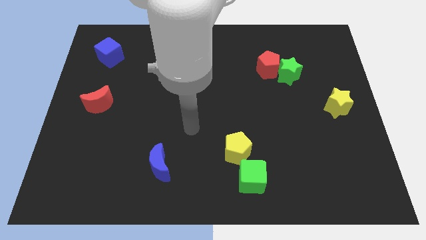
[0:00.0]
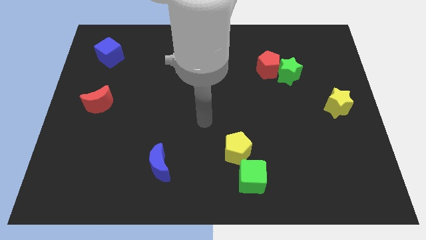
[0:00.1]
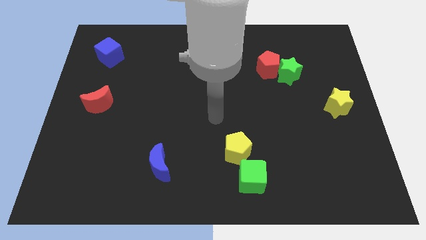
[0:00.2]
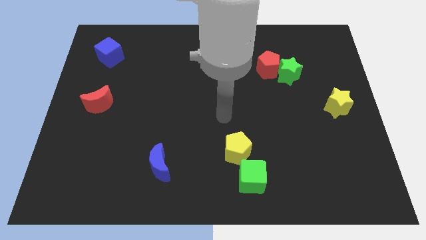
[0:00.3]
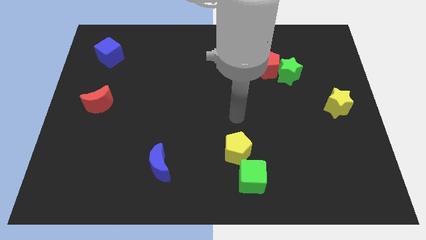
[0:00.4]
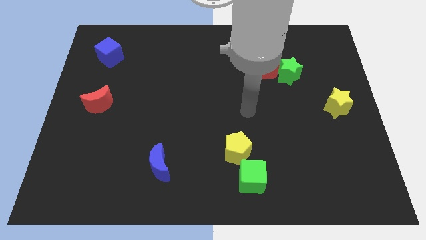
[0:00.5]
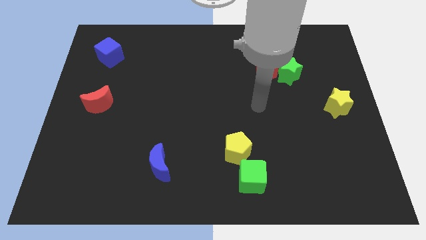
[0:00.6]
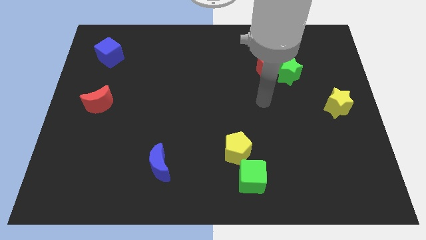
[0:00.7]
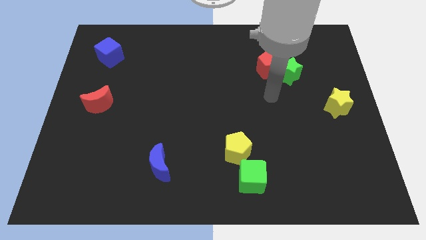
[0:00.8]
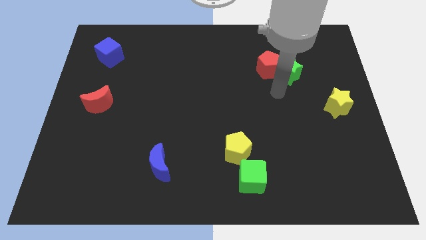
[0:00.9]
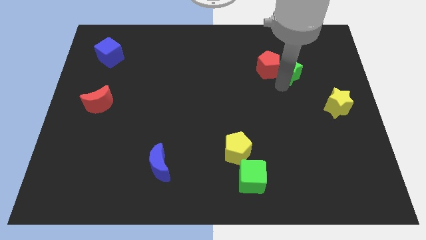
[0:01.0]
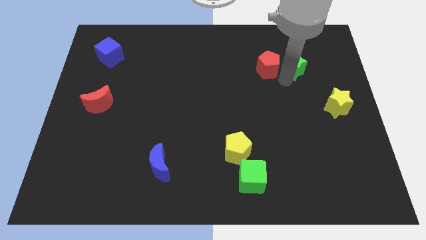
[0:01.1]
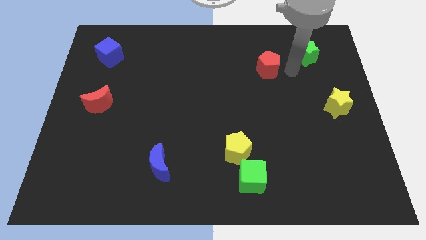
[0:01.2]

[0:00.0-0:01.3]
pull the red pentagon apart from the green star

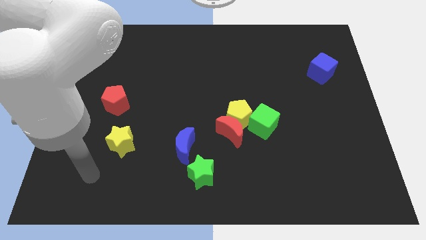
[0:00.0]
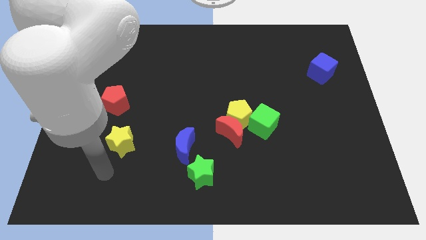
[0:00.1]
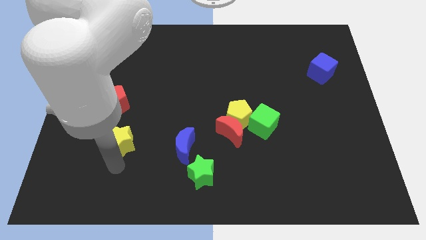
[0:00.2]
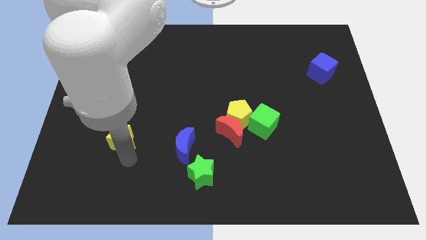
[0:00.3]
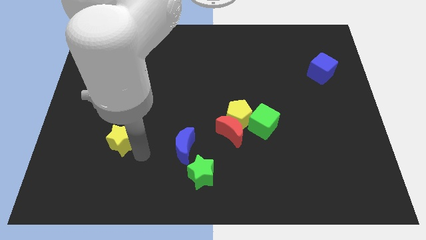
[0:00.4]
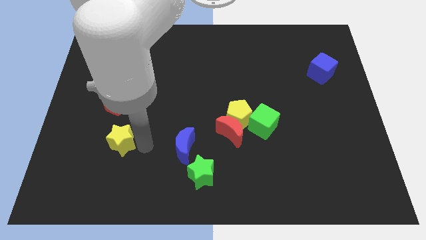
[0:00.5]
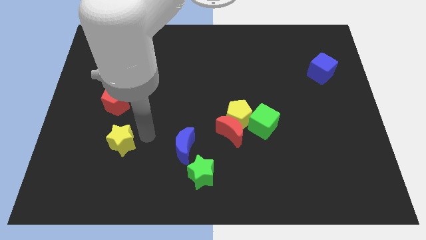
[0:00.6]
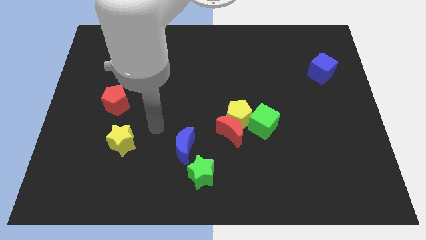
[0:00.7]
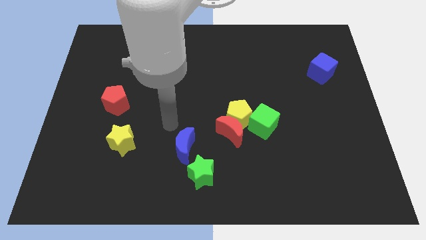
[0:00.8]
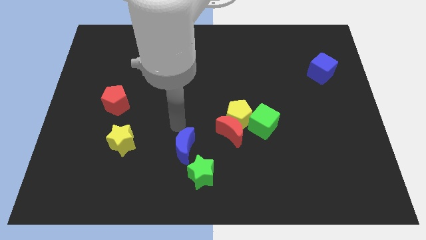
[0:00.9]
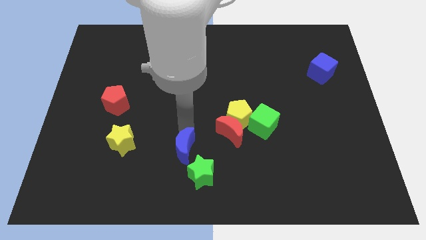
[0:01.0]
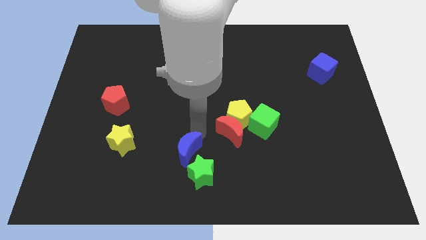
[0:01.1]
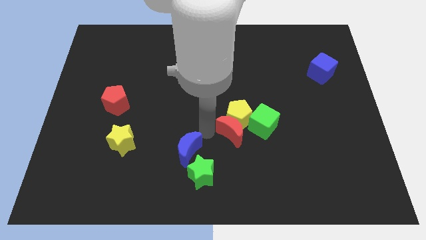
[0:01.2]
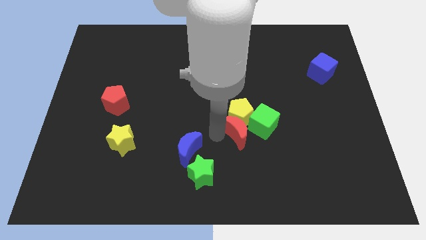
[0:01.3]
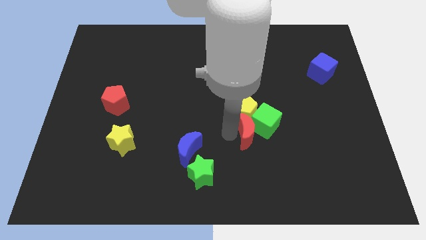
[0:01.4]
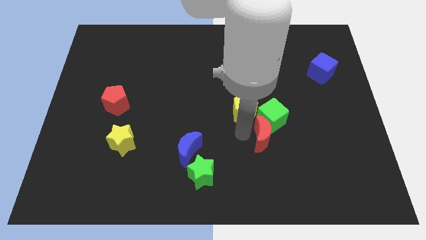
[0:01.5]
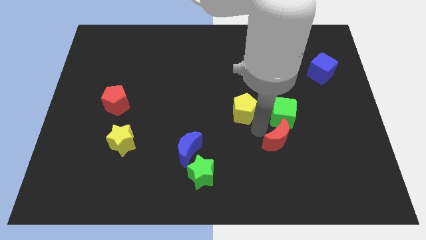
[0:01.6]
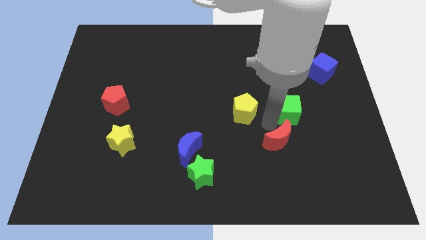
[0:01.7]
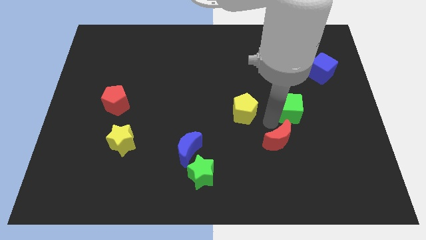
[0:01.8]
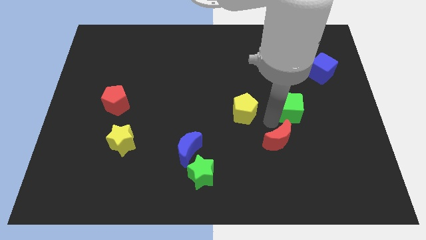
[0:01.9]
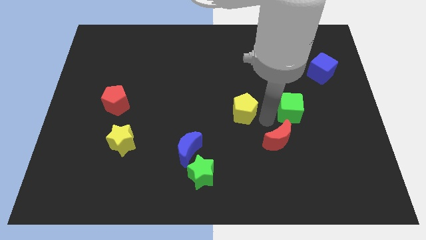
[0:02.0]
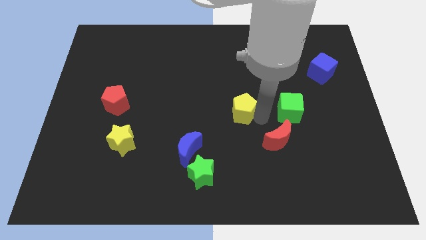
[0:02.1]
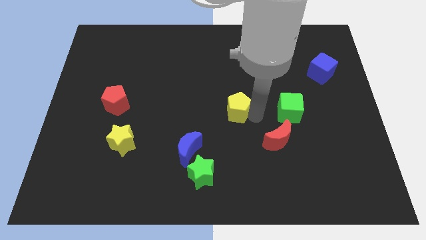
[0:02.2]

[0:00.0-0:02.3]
pull the yellow pentagon apart from the red moon and green cube

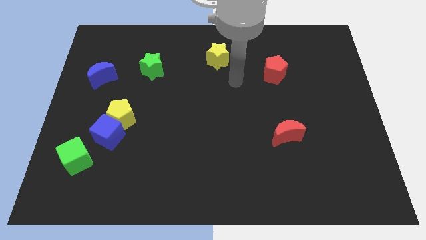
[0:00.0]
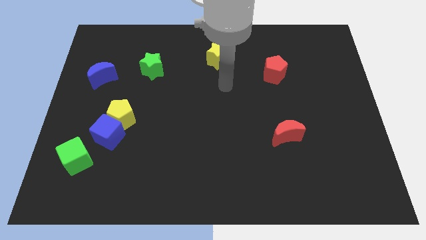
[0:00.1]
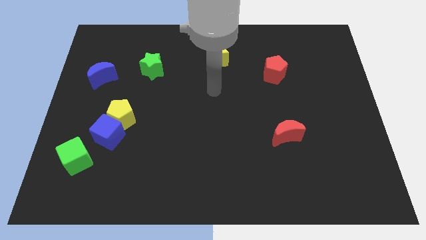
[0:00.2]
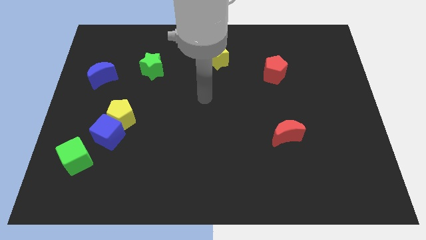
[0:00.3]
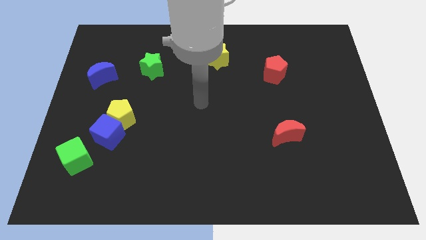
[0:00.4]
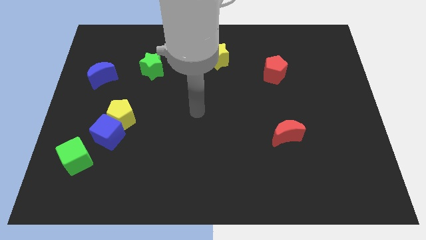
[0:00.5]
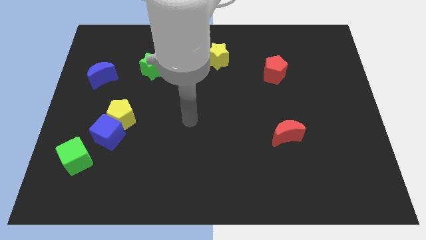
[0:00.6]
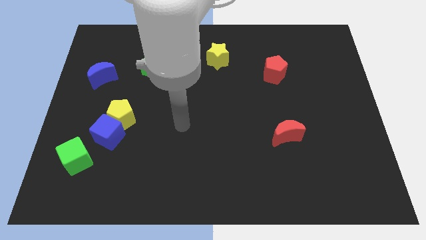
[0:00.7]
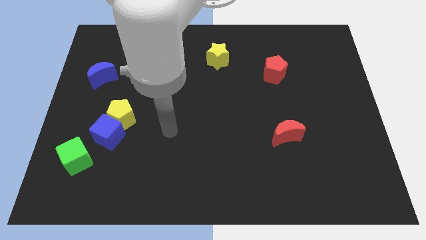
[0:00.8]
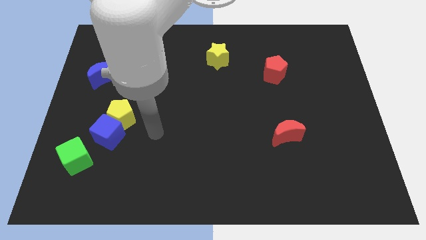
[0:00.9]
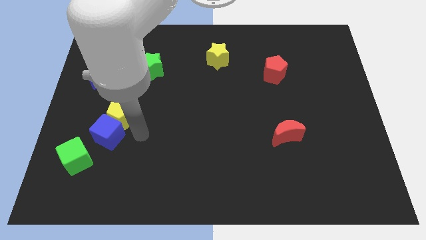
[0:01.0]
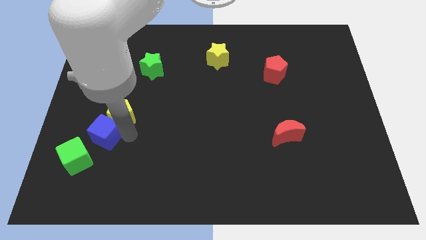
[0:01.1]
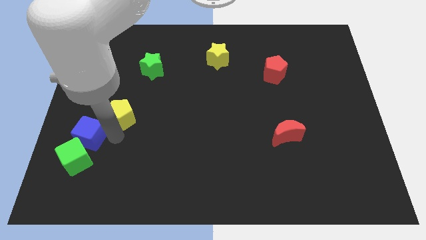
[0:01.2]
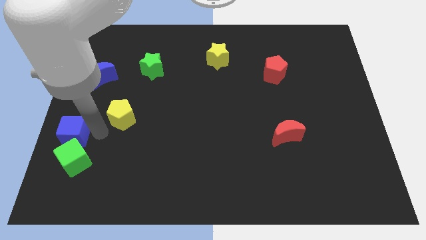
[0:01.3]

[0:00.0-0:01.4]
pull the yellow pentagon apart from the blue cube

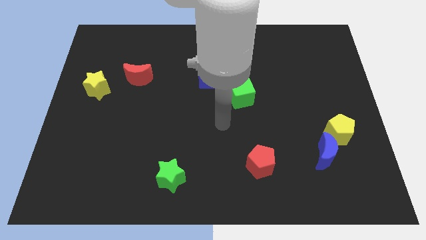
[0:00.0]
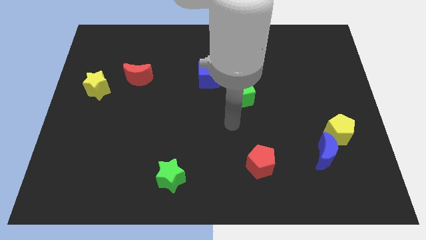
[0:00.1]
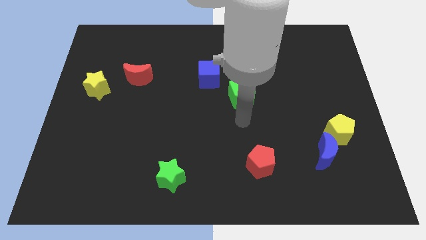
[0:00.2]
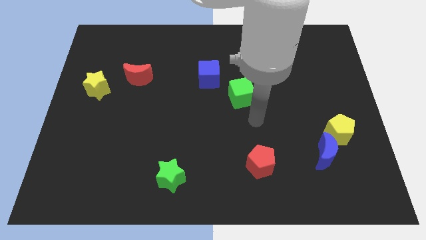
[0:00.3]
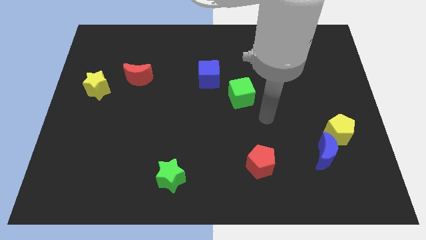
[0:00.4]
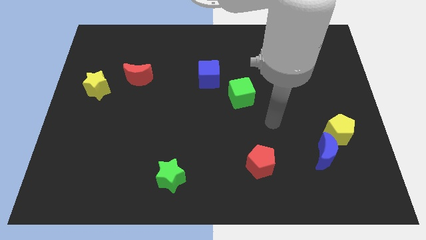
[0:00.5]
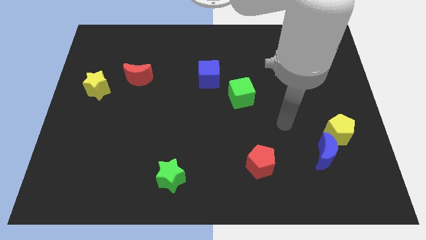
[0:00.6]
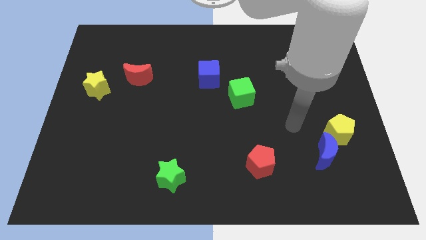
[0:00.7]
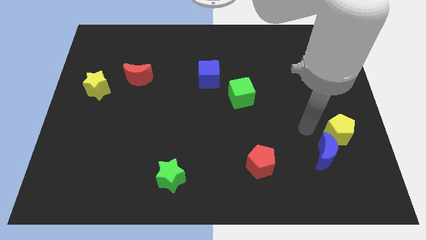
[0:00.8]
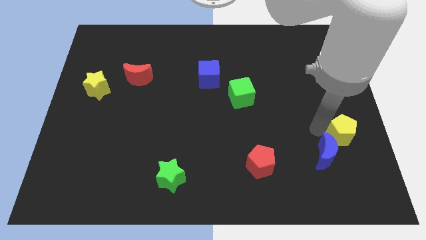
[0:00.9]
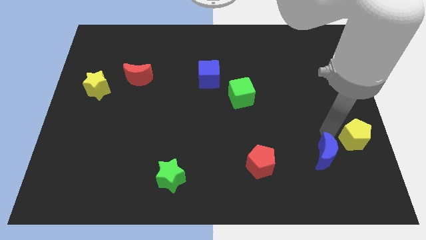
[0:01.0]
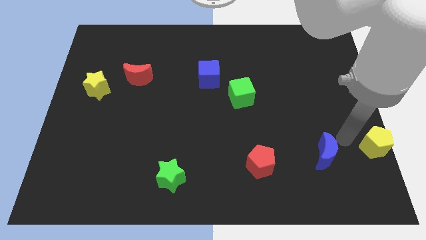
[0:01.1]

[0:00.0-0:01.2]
pull the blue moon apart from the yellow pentagon

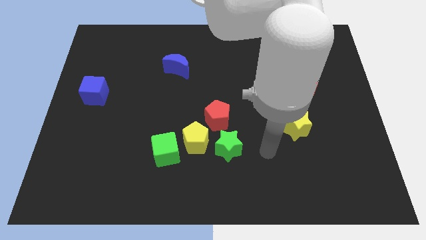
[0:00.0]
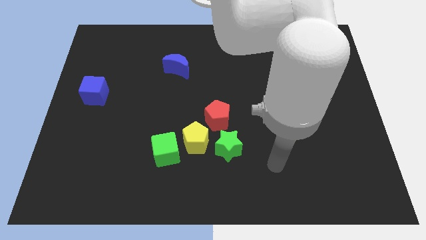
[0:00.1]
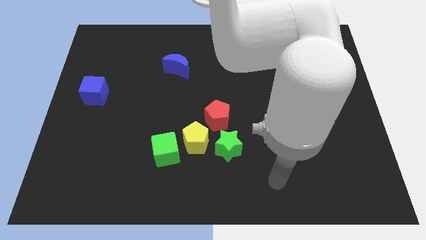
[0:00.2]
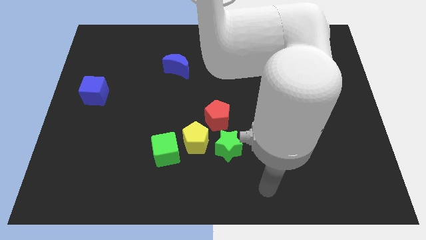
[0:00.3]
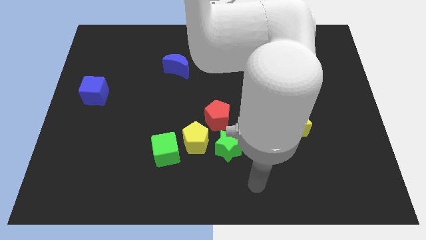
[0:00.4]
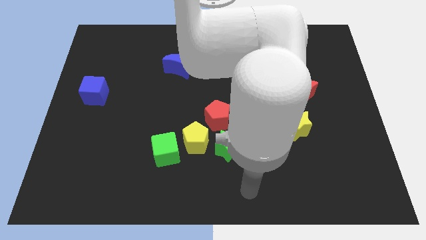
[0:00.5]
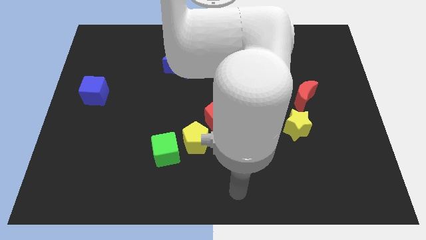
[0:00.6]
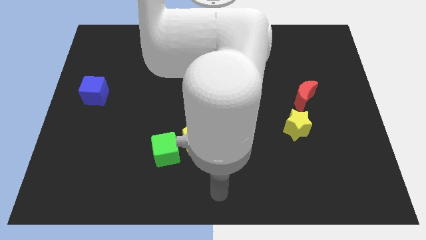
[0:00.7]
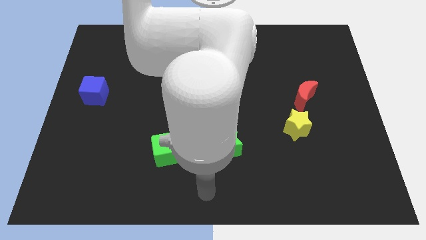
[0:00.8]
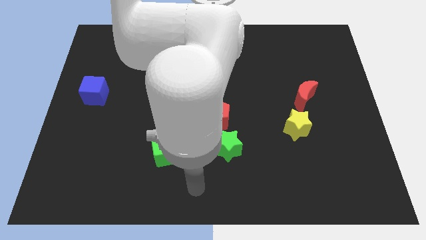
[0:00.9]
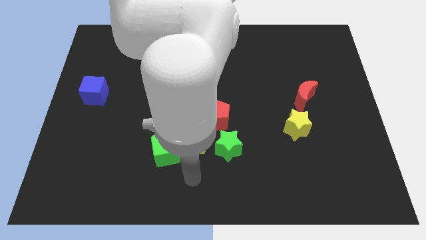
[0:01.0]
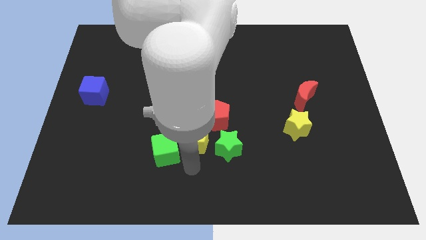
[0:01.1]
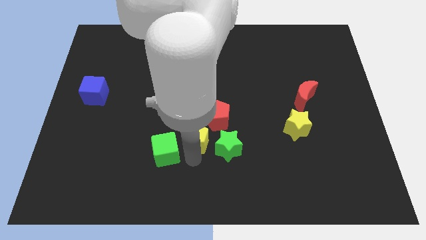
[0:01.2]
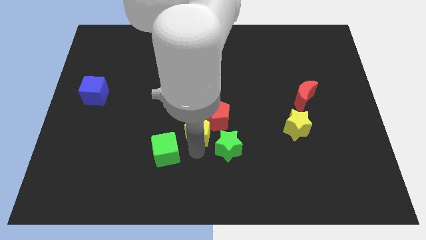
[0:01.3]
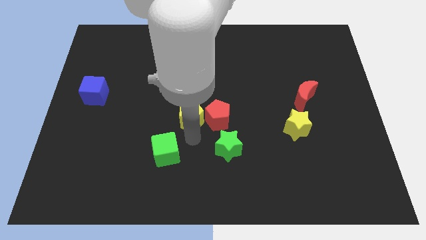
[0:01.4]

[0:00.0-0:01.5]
pull the green cube apart from the yellow pentagon

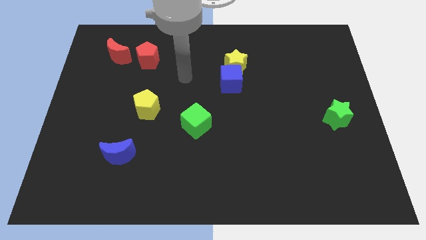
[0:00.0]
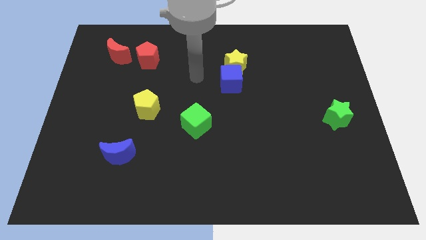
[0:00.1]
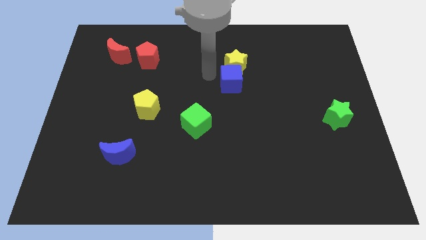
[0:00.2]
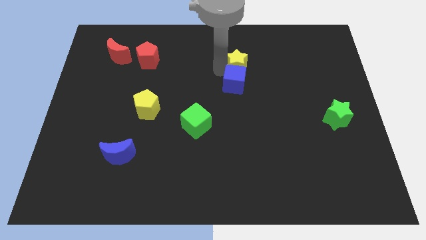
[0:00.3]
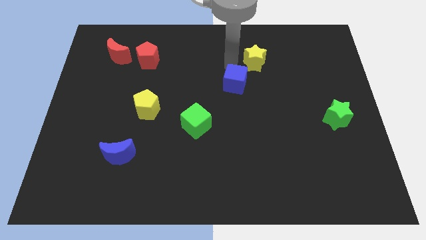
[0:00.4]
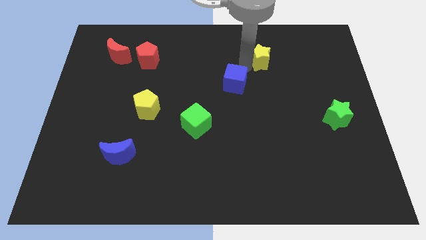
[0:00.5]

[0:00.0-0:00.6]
pull the blue cube apart from the yellow star

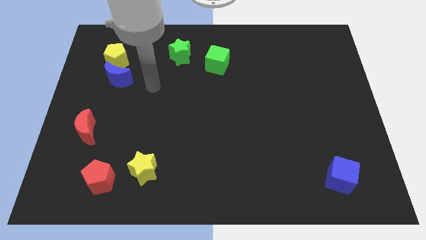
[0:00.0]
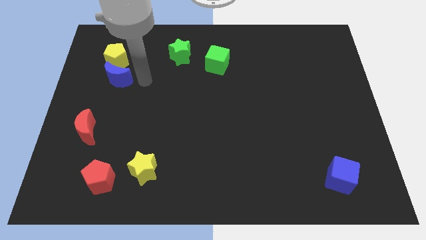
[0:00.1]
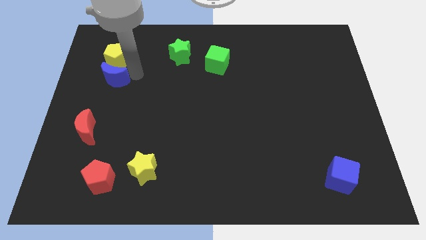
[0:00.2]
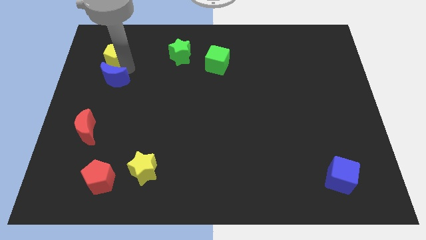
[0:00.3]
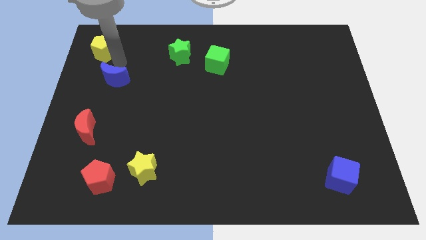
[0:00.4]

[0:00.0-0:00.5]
move the blue moon away from the yellow pentagon

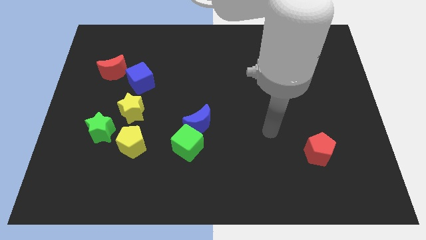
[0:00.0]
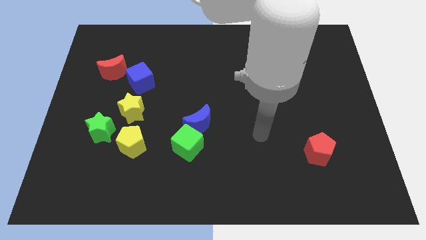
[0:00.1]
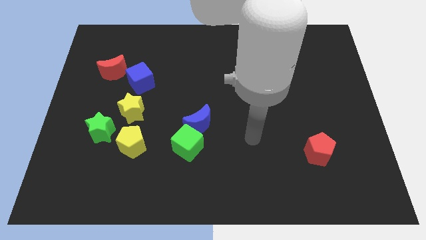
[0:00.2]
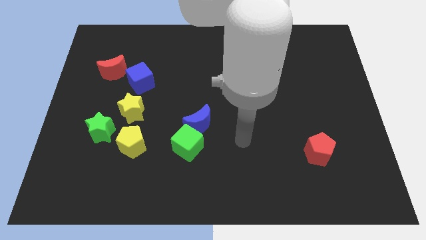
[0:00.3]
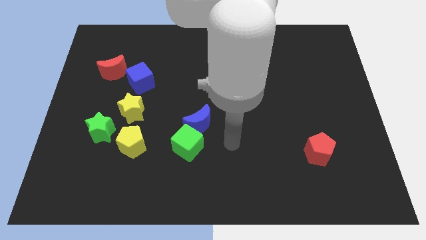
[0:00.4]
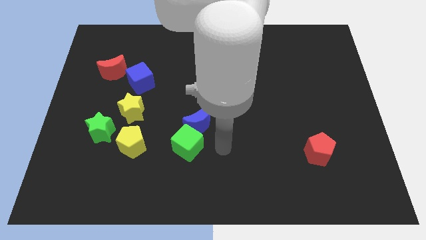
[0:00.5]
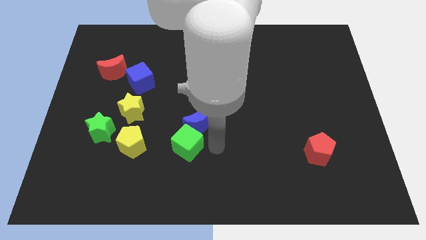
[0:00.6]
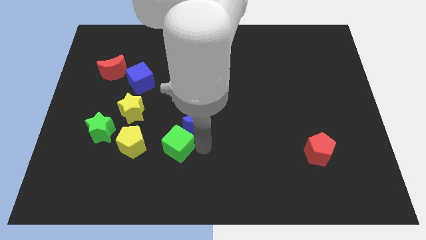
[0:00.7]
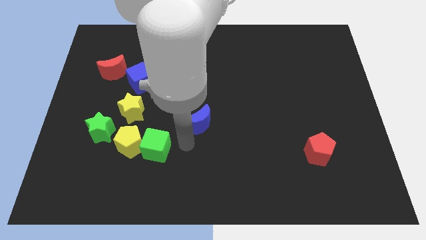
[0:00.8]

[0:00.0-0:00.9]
separate the blue moon from the green cube
